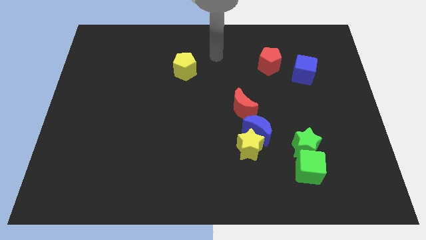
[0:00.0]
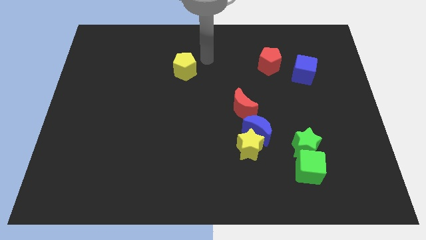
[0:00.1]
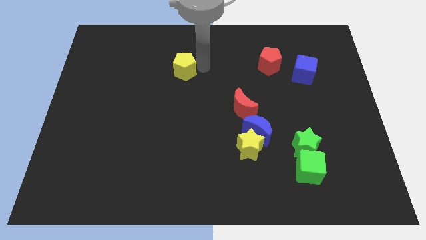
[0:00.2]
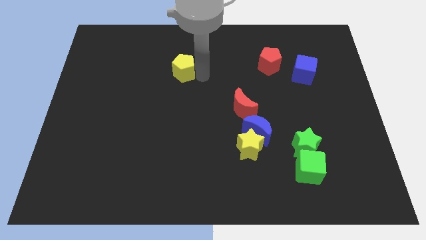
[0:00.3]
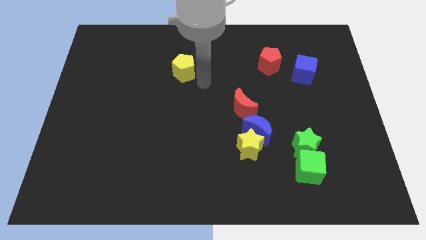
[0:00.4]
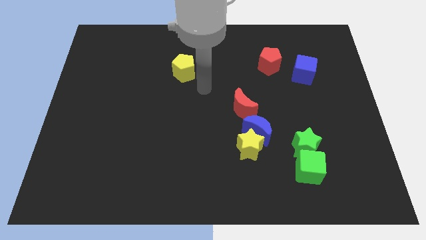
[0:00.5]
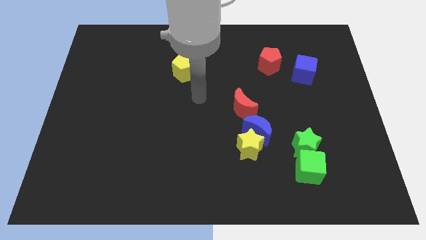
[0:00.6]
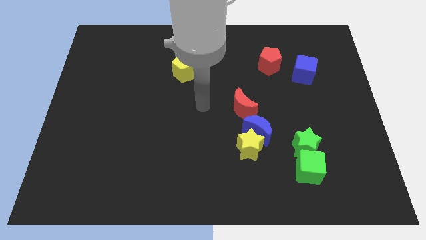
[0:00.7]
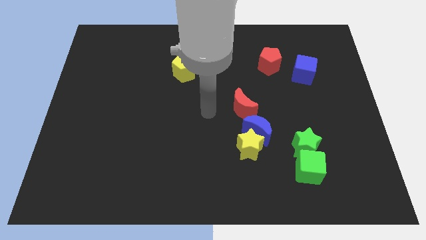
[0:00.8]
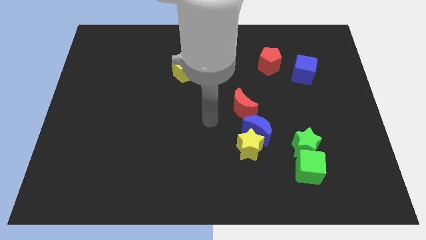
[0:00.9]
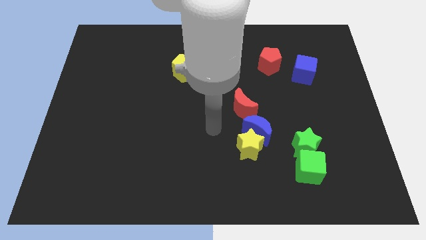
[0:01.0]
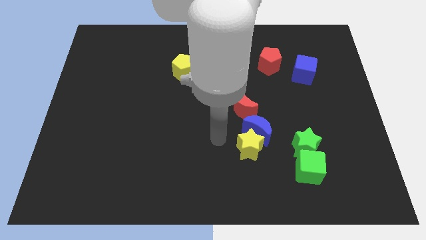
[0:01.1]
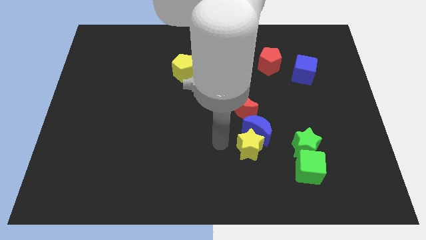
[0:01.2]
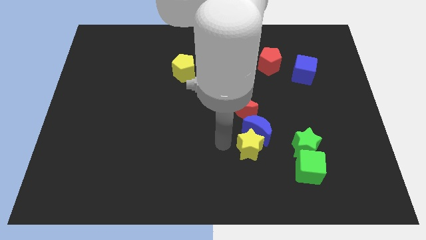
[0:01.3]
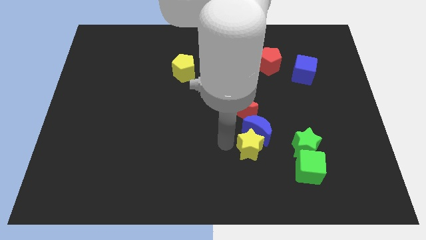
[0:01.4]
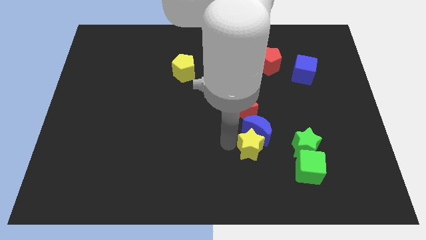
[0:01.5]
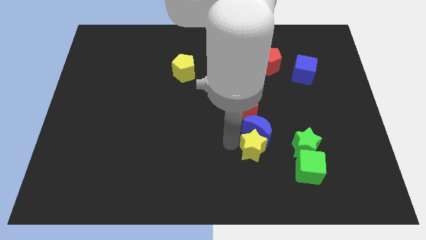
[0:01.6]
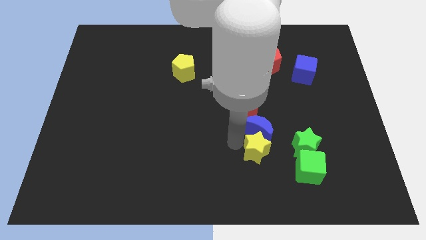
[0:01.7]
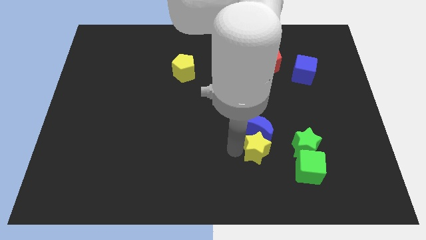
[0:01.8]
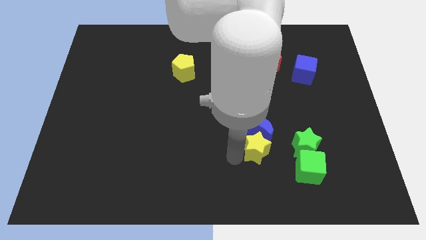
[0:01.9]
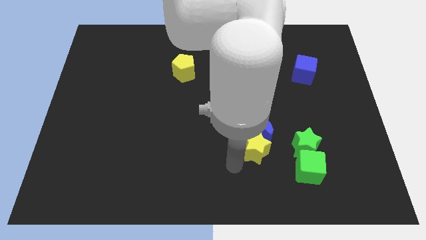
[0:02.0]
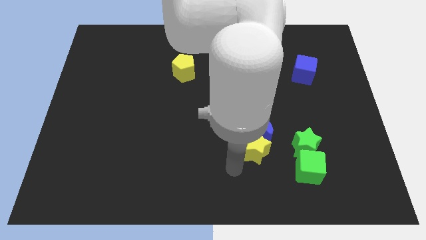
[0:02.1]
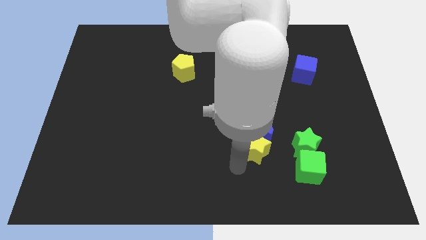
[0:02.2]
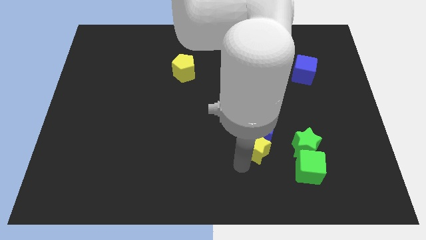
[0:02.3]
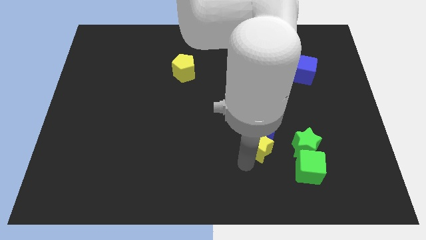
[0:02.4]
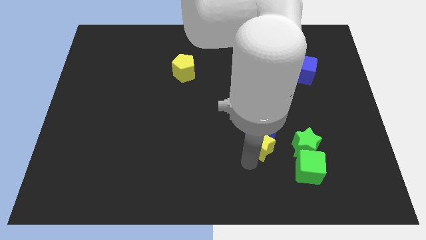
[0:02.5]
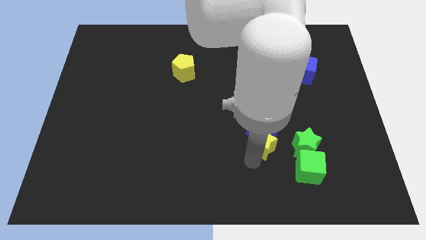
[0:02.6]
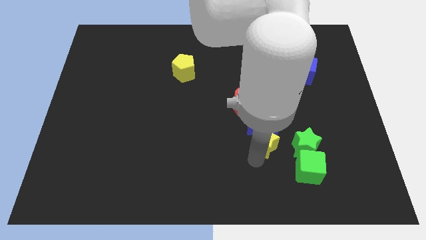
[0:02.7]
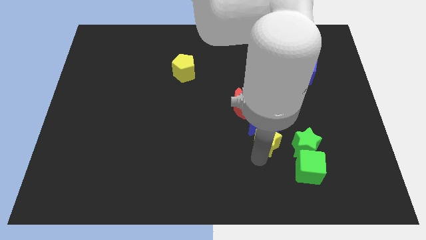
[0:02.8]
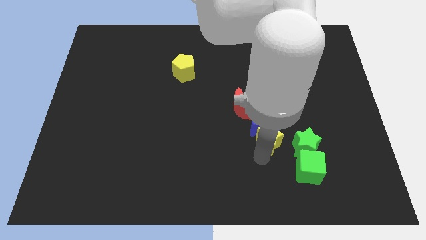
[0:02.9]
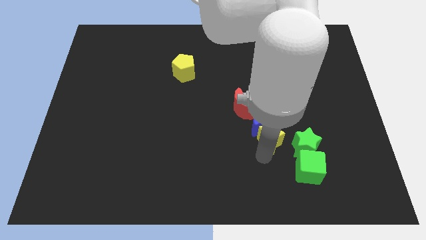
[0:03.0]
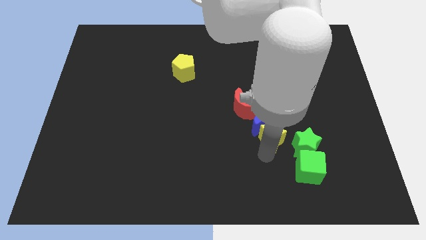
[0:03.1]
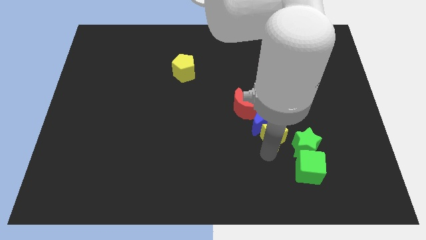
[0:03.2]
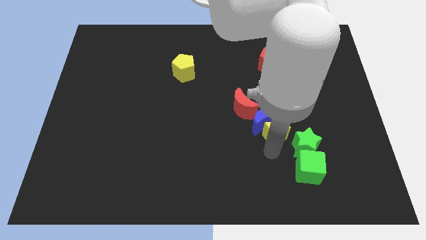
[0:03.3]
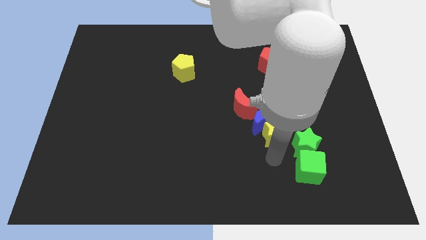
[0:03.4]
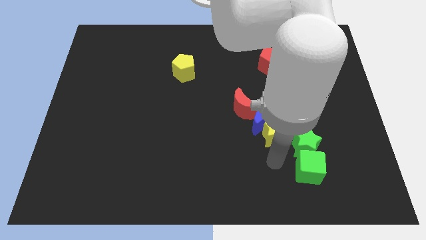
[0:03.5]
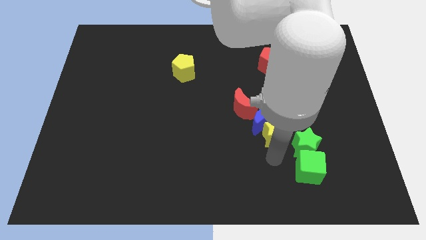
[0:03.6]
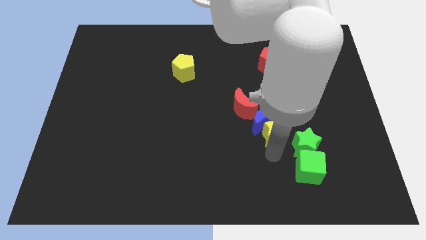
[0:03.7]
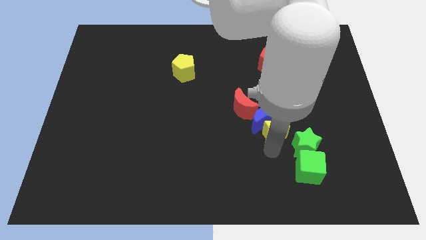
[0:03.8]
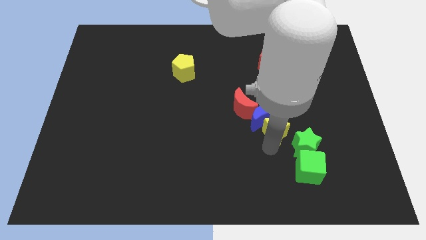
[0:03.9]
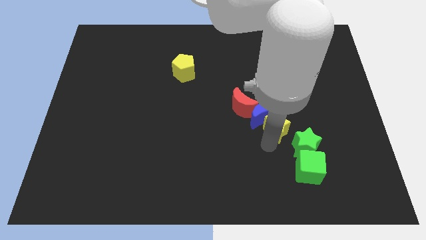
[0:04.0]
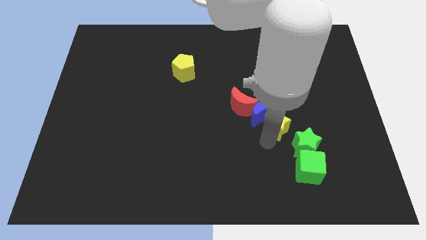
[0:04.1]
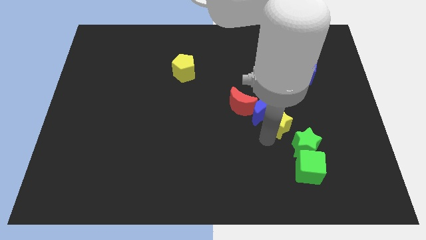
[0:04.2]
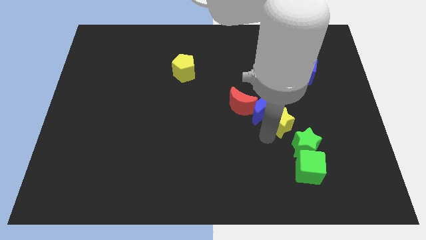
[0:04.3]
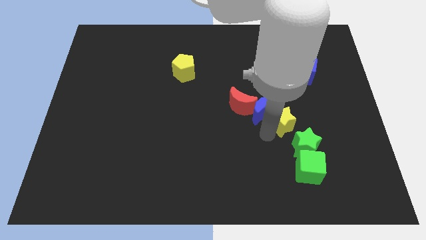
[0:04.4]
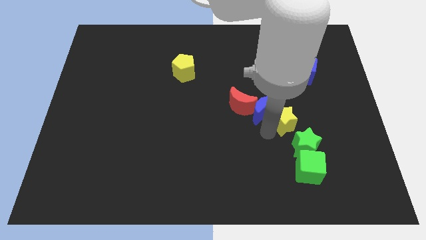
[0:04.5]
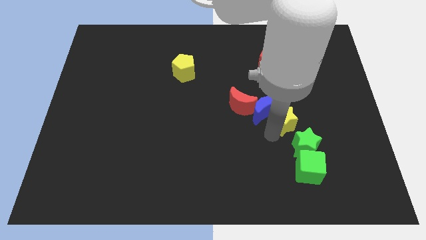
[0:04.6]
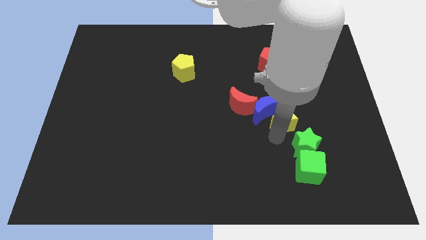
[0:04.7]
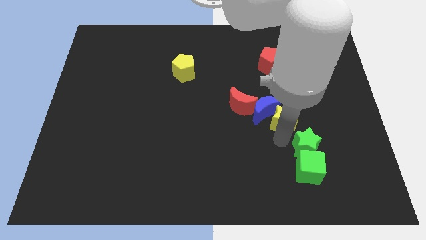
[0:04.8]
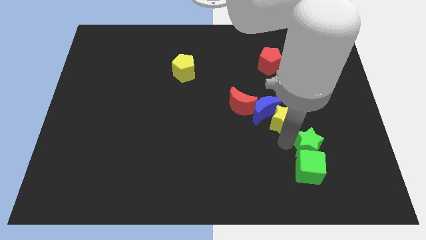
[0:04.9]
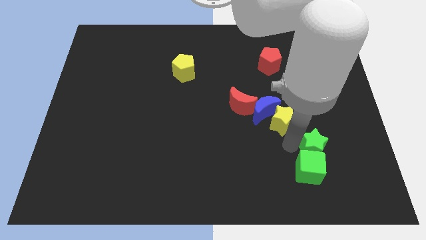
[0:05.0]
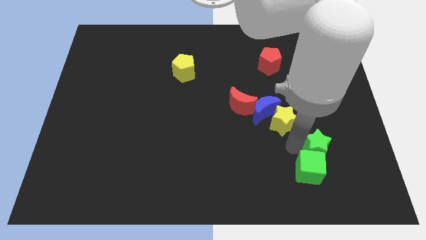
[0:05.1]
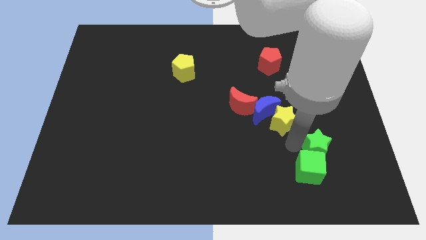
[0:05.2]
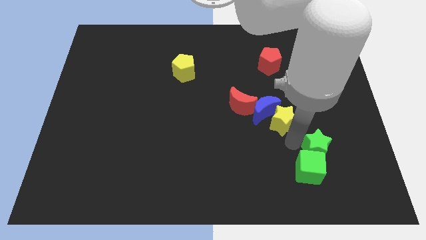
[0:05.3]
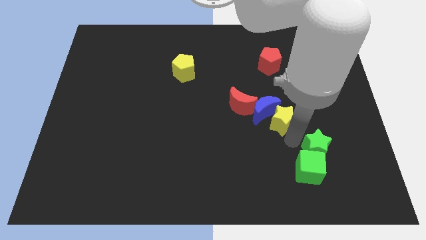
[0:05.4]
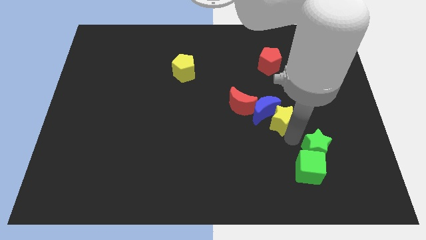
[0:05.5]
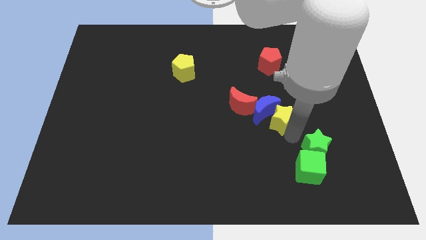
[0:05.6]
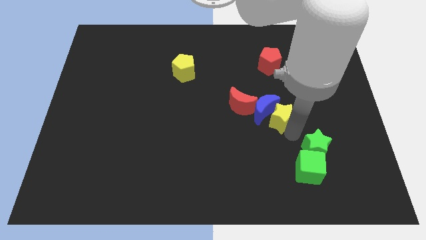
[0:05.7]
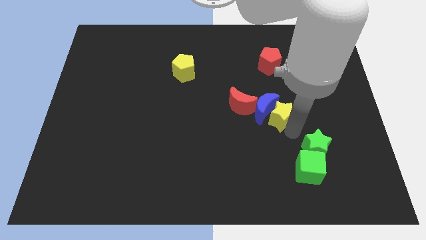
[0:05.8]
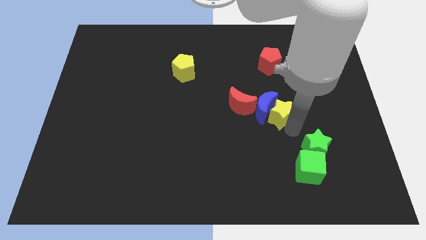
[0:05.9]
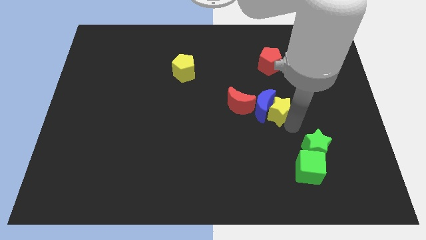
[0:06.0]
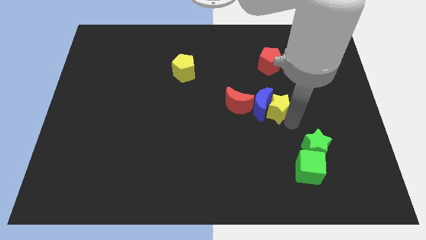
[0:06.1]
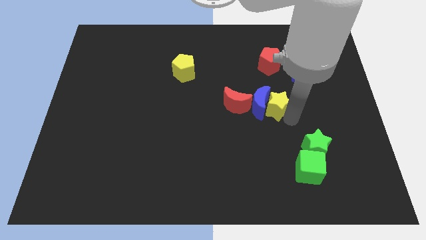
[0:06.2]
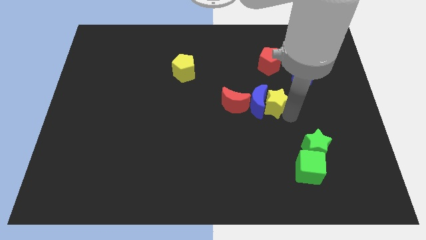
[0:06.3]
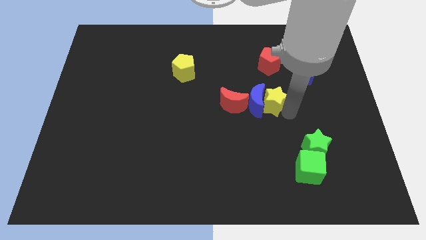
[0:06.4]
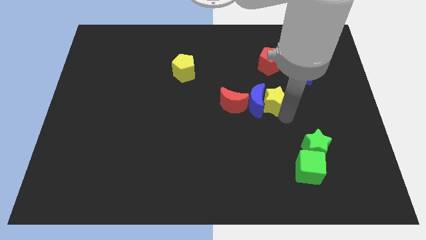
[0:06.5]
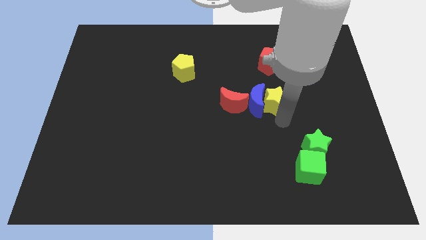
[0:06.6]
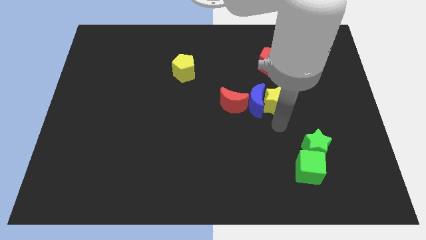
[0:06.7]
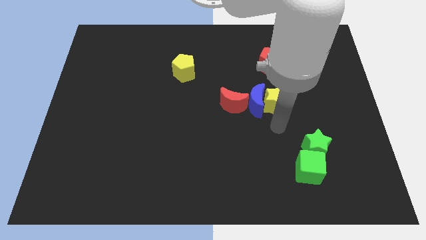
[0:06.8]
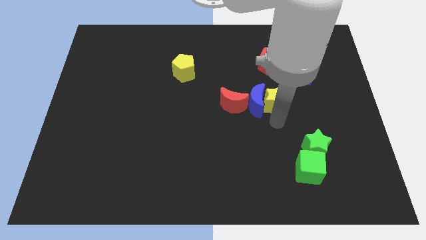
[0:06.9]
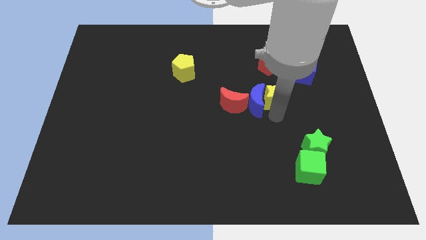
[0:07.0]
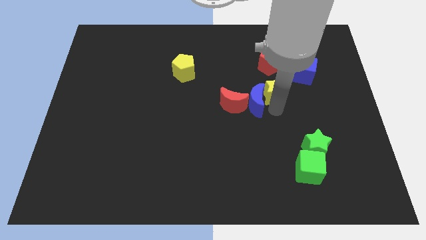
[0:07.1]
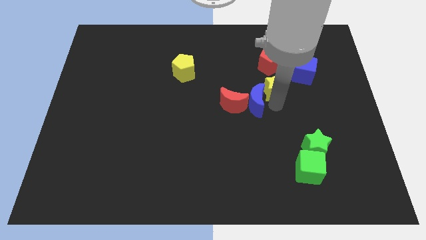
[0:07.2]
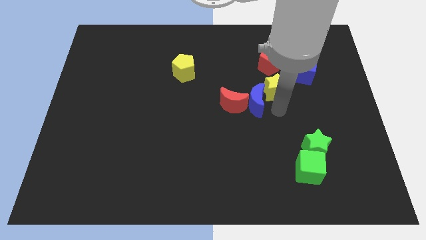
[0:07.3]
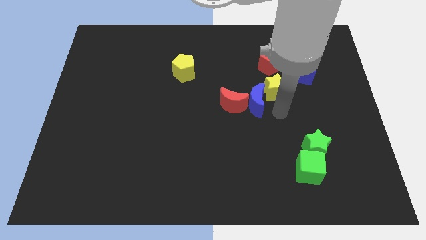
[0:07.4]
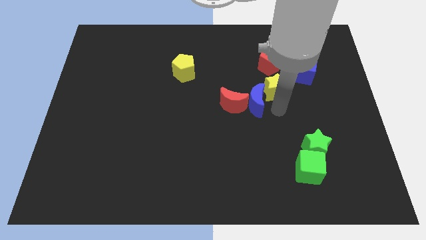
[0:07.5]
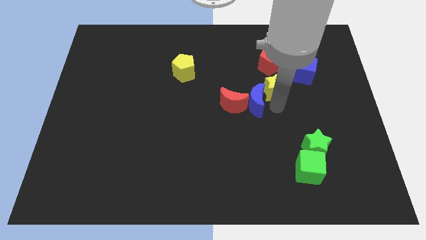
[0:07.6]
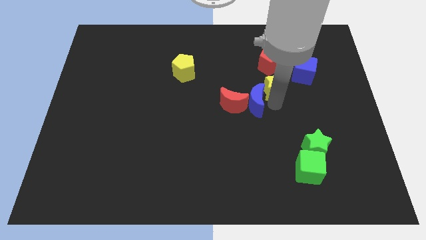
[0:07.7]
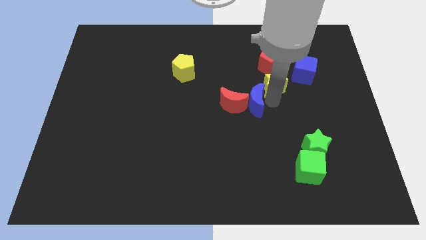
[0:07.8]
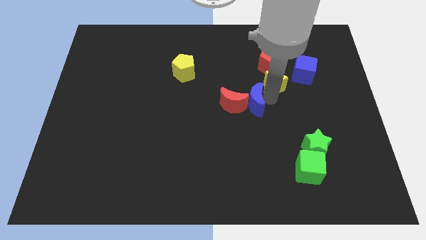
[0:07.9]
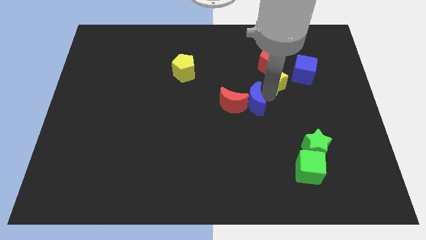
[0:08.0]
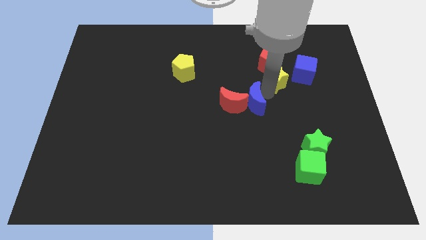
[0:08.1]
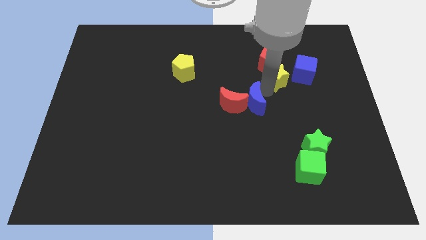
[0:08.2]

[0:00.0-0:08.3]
move the yellow star next to the red pentagon
